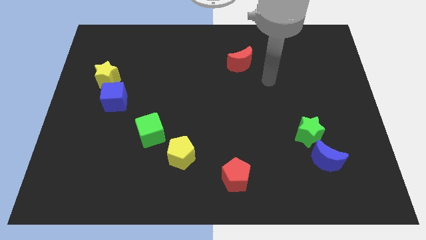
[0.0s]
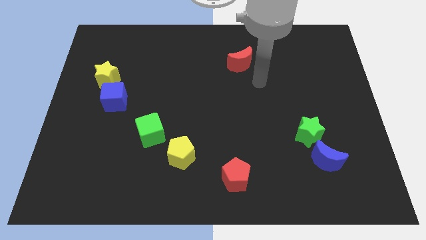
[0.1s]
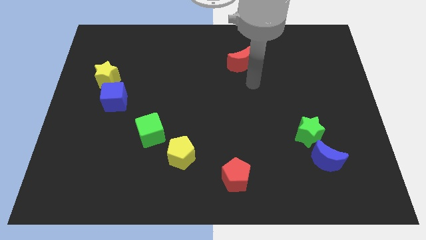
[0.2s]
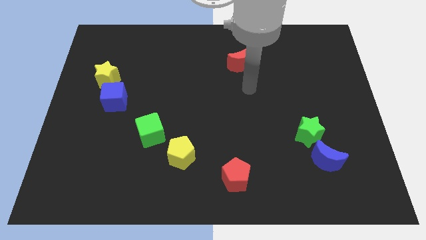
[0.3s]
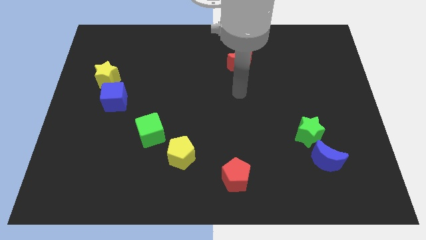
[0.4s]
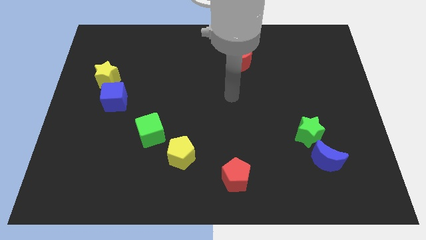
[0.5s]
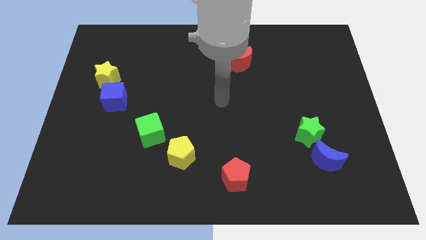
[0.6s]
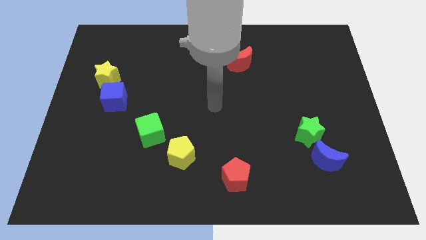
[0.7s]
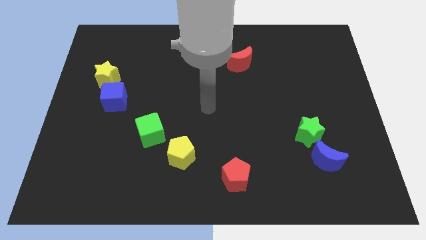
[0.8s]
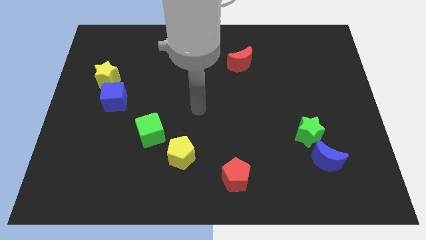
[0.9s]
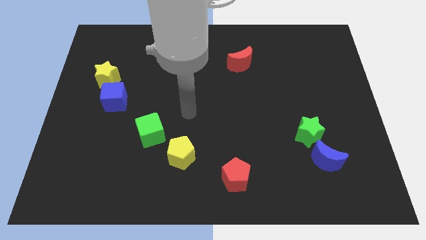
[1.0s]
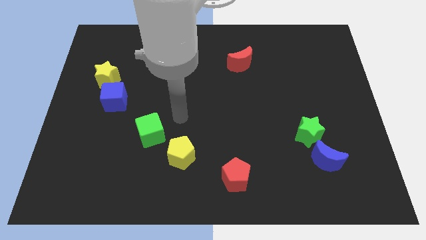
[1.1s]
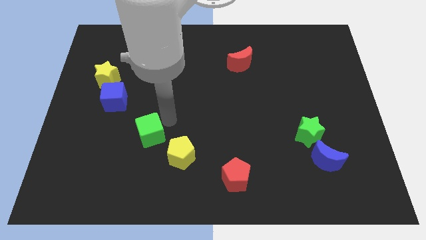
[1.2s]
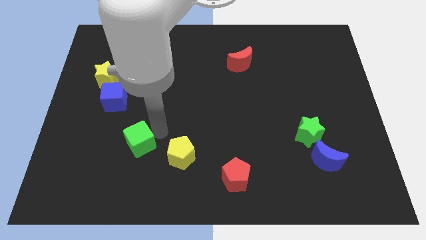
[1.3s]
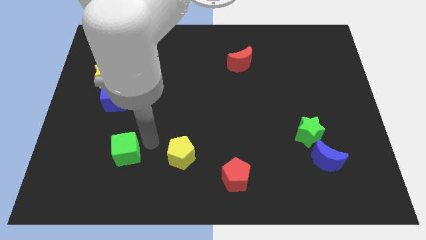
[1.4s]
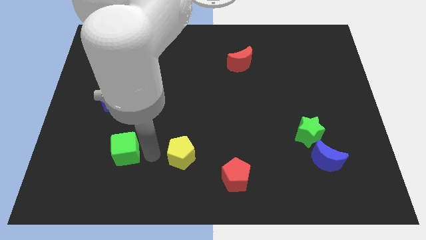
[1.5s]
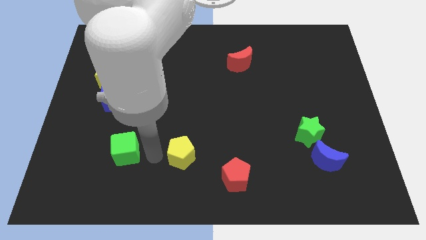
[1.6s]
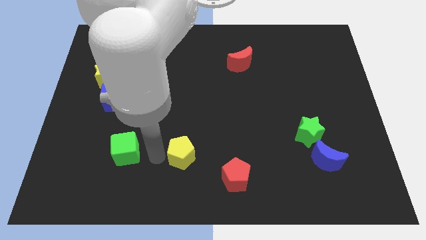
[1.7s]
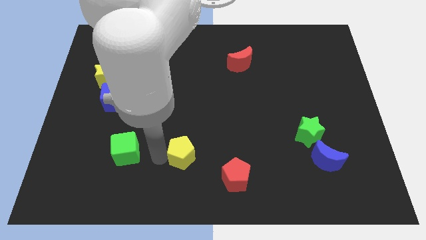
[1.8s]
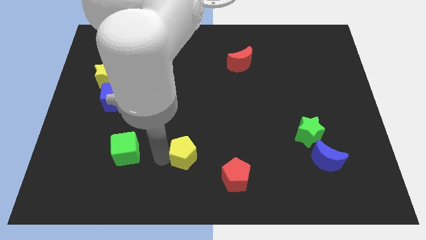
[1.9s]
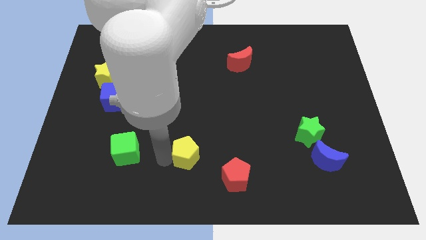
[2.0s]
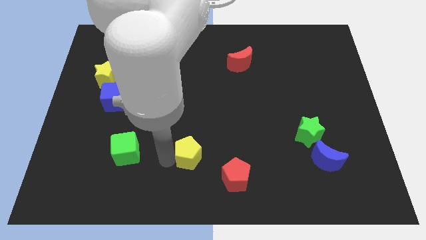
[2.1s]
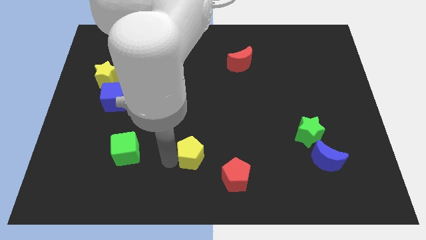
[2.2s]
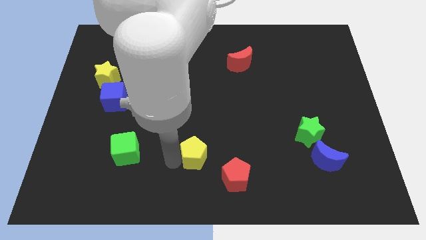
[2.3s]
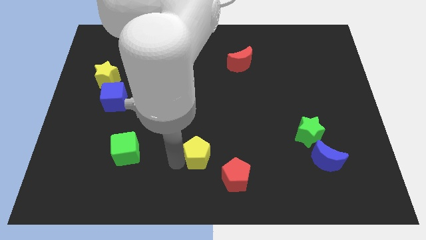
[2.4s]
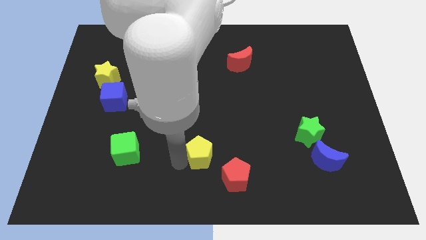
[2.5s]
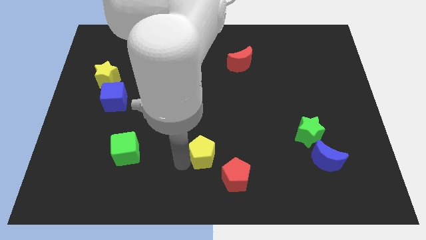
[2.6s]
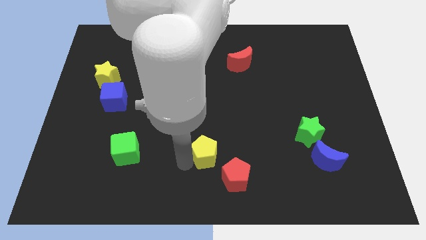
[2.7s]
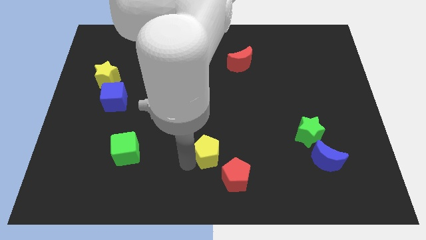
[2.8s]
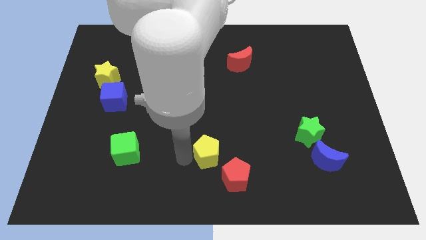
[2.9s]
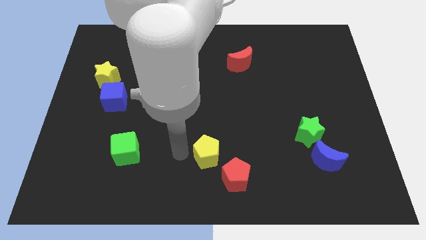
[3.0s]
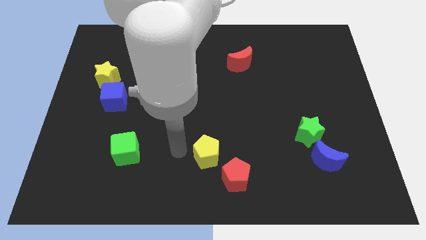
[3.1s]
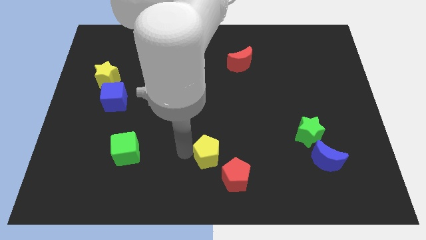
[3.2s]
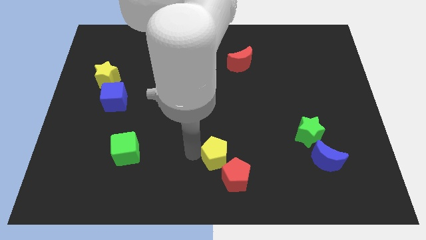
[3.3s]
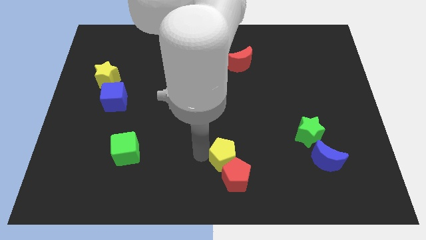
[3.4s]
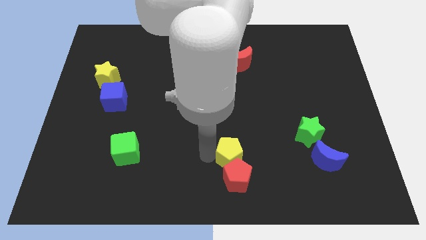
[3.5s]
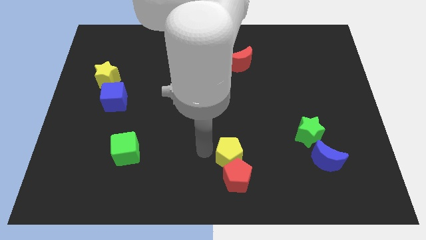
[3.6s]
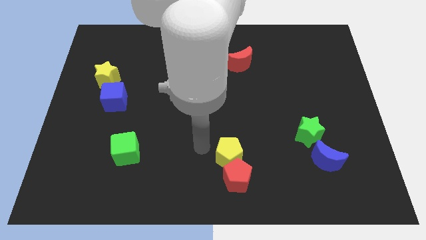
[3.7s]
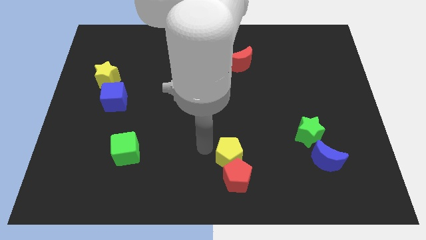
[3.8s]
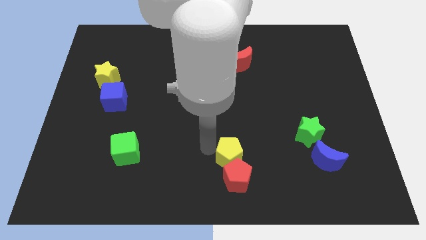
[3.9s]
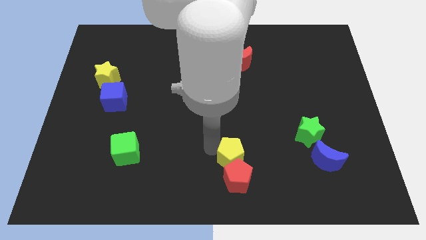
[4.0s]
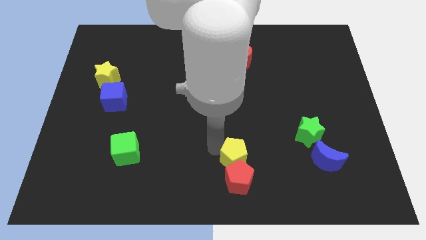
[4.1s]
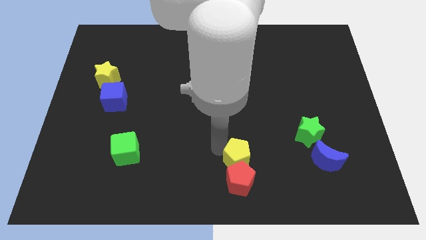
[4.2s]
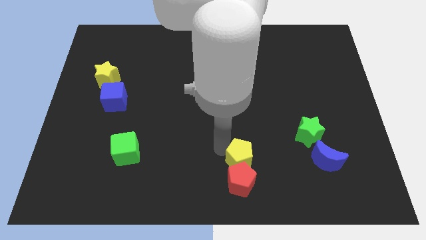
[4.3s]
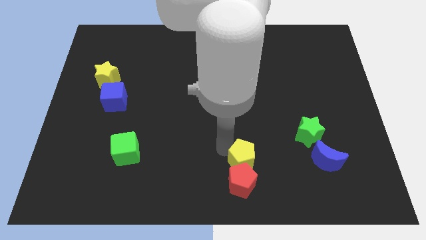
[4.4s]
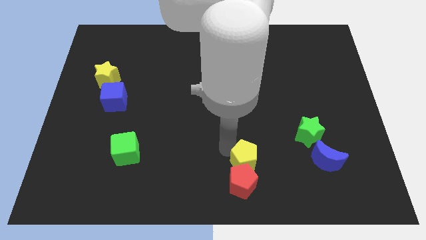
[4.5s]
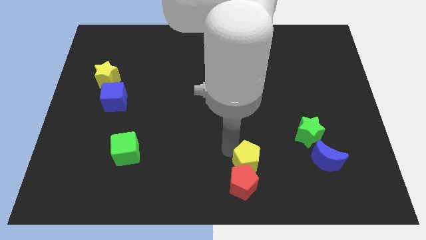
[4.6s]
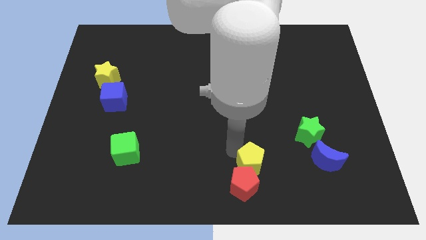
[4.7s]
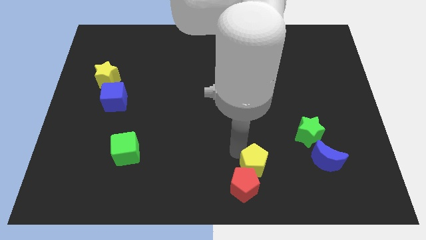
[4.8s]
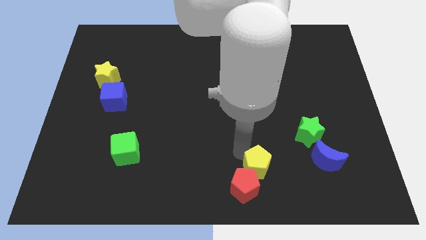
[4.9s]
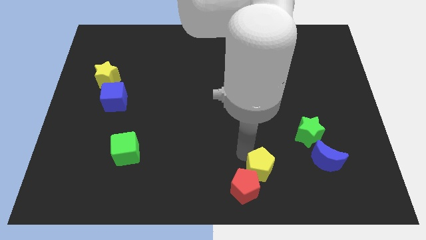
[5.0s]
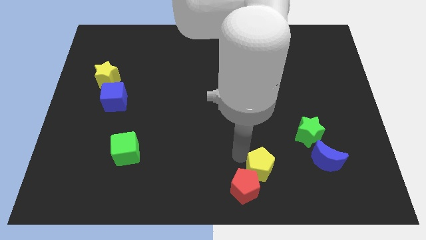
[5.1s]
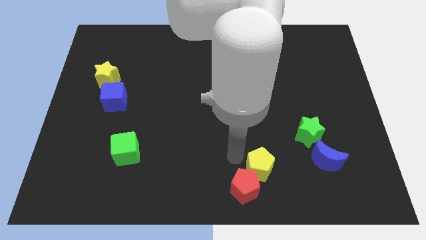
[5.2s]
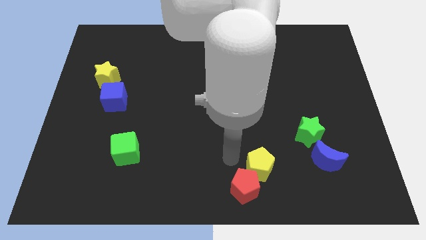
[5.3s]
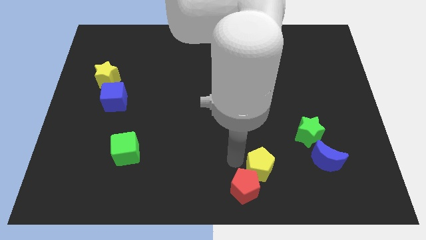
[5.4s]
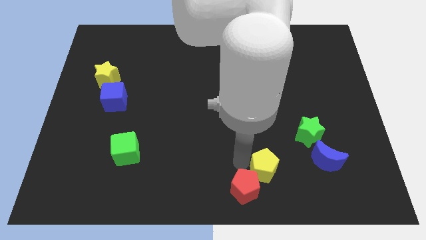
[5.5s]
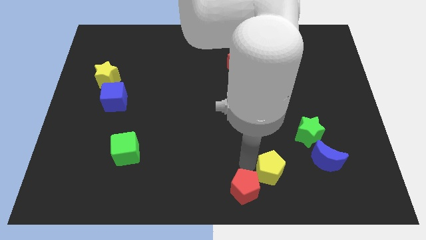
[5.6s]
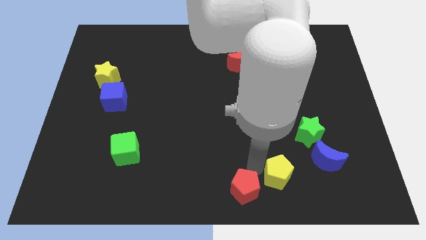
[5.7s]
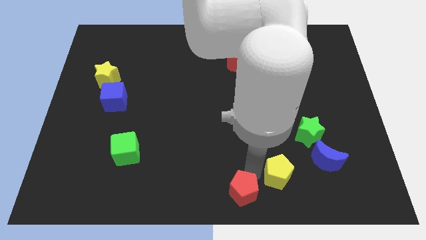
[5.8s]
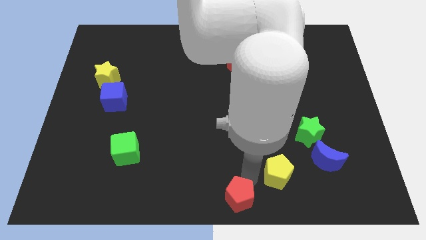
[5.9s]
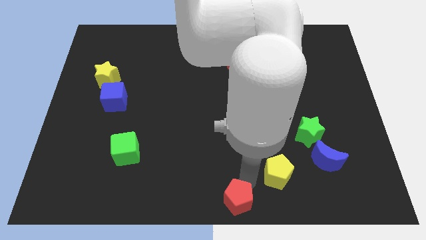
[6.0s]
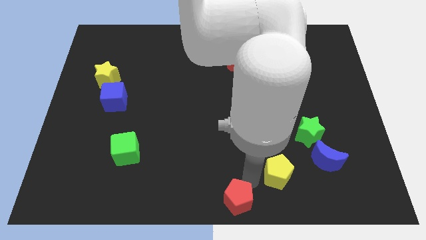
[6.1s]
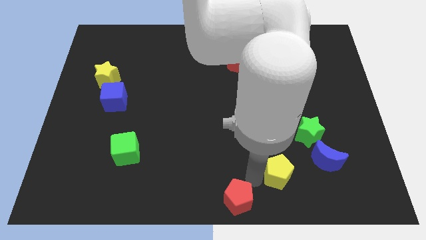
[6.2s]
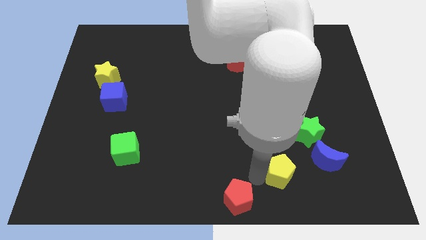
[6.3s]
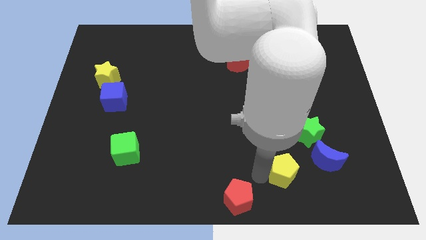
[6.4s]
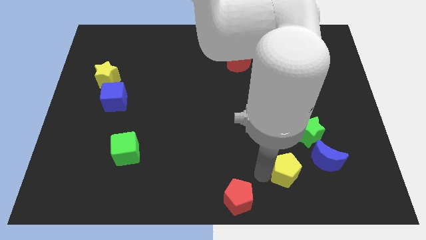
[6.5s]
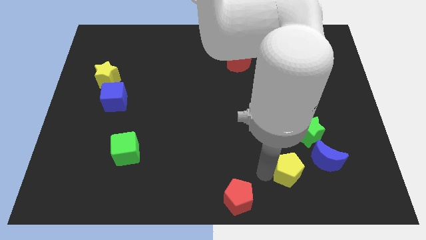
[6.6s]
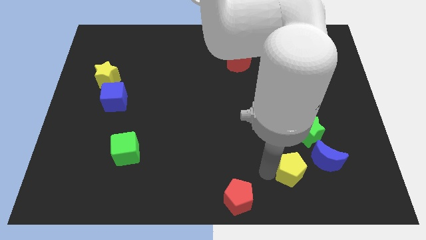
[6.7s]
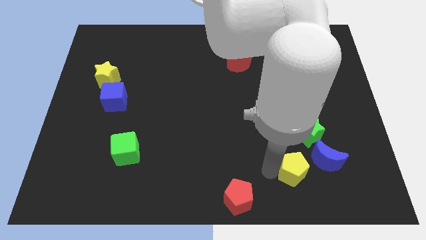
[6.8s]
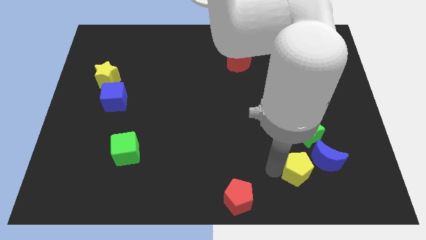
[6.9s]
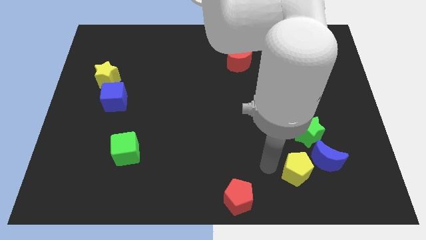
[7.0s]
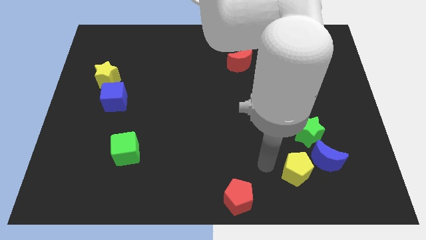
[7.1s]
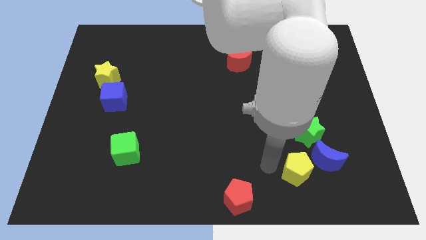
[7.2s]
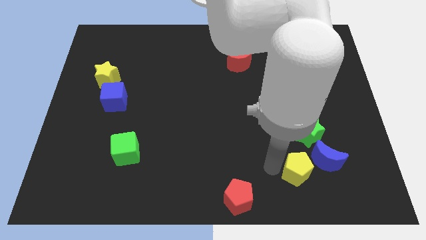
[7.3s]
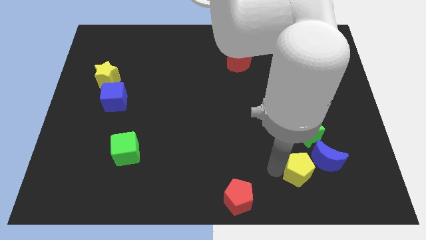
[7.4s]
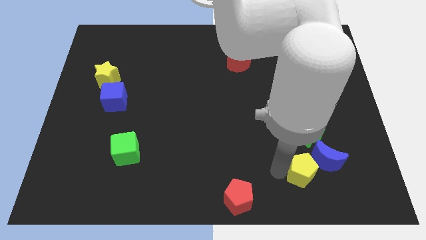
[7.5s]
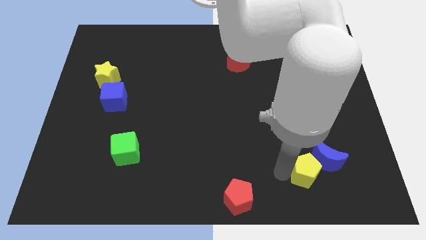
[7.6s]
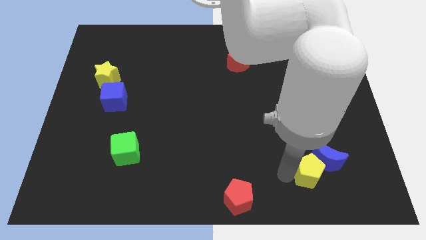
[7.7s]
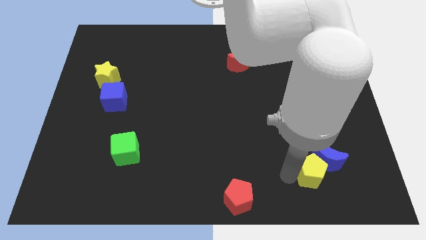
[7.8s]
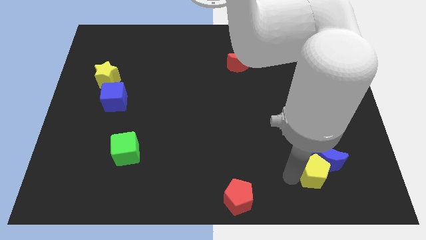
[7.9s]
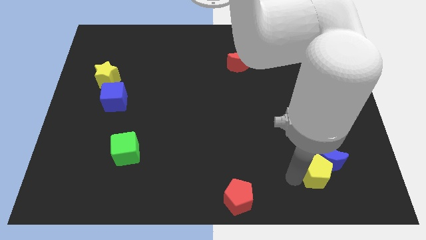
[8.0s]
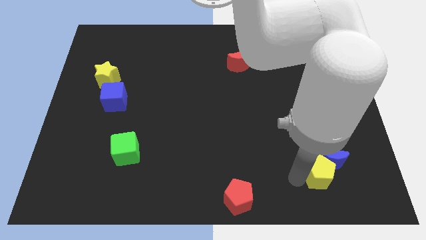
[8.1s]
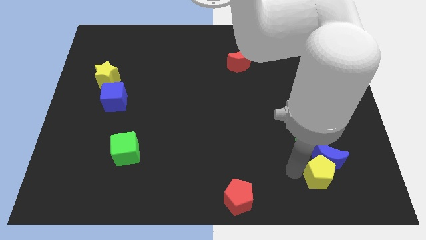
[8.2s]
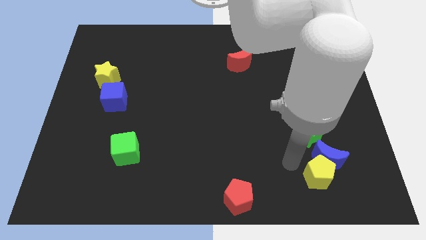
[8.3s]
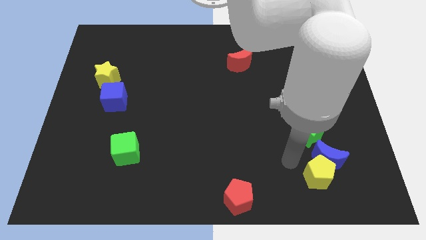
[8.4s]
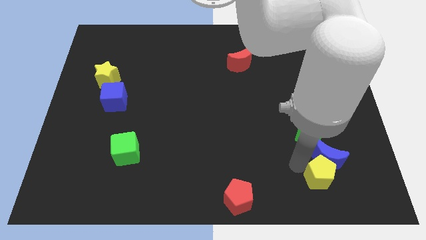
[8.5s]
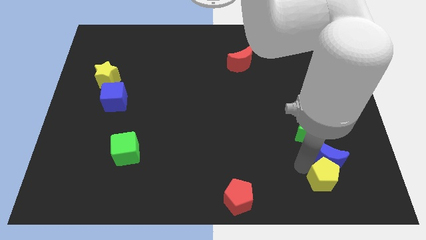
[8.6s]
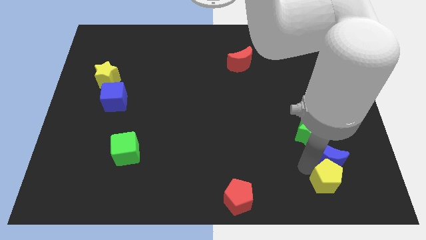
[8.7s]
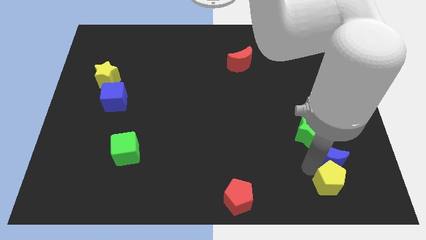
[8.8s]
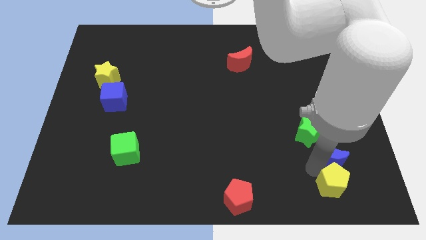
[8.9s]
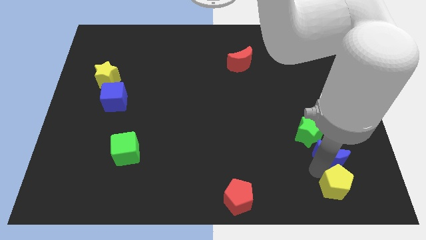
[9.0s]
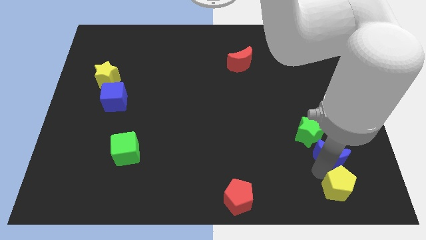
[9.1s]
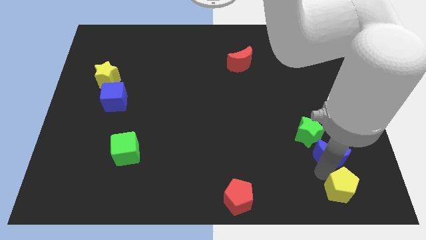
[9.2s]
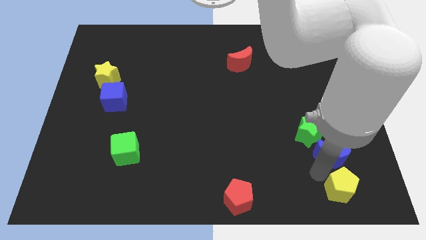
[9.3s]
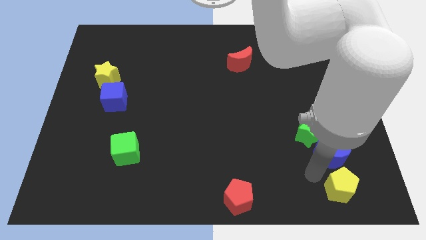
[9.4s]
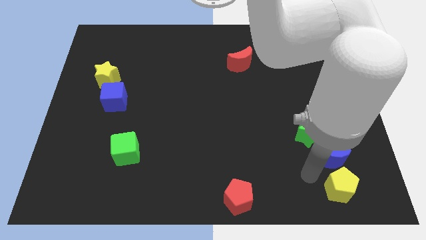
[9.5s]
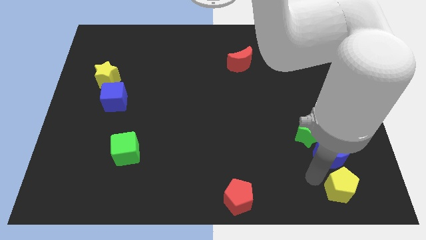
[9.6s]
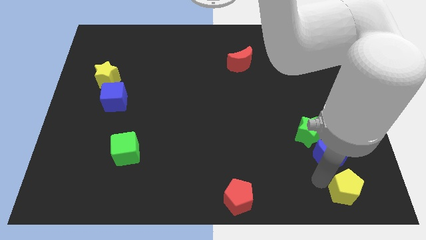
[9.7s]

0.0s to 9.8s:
push the yellow pentagon to the bottom right corner
